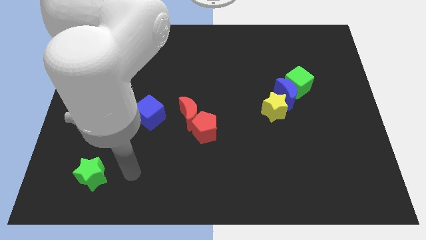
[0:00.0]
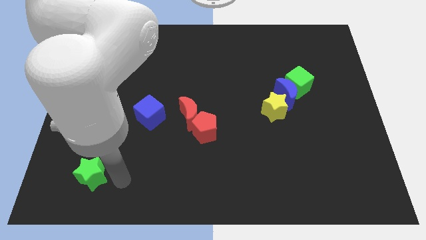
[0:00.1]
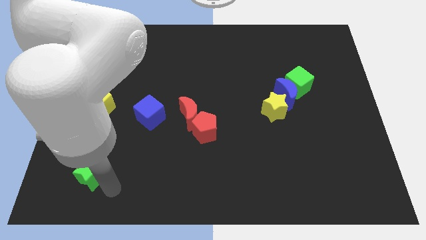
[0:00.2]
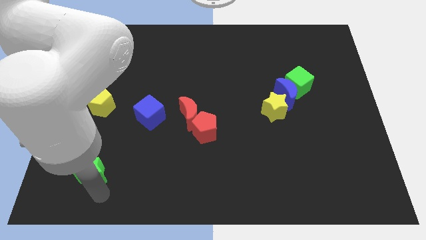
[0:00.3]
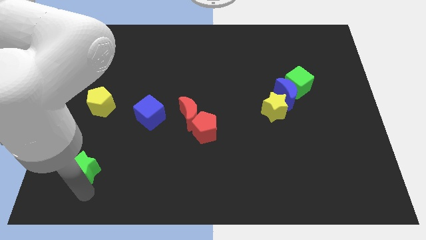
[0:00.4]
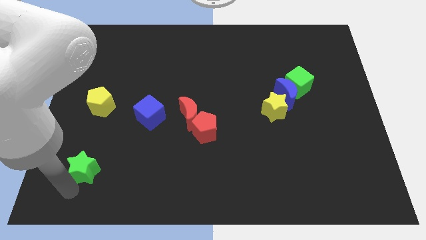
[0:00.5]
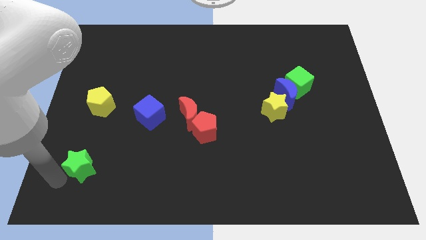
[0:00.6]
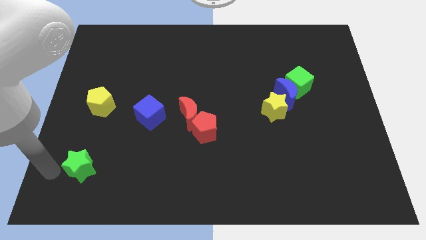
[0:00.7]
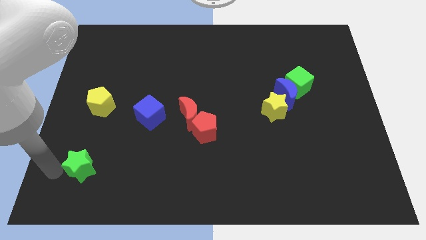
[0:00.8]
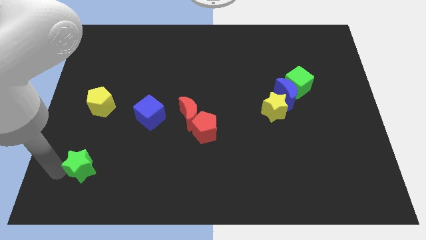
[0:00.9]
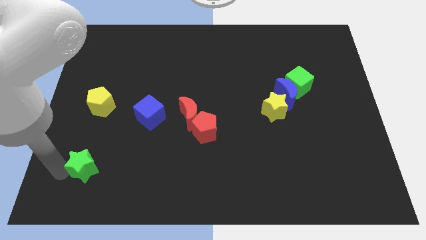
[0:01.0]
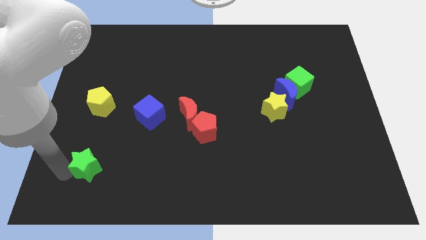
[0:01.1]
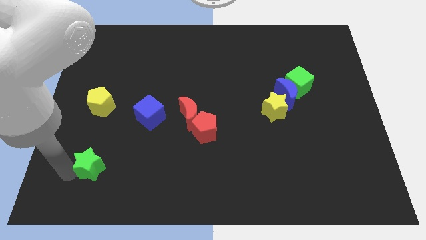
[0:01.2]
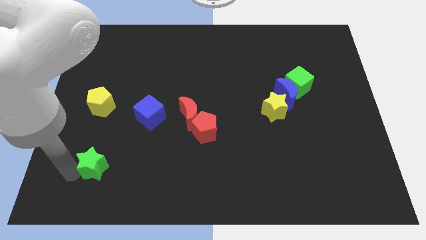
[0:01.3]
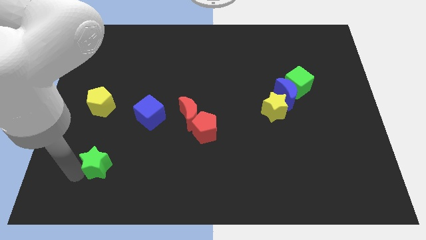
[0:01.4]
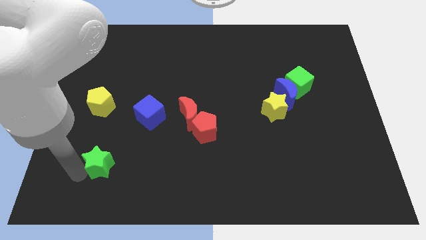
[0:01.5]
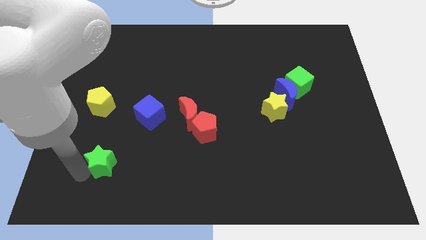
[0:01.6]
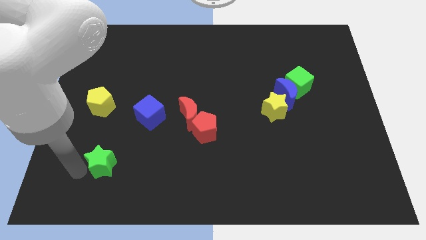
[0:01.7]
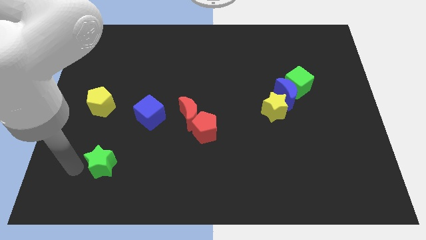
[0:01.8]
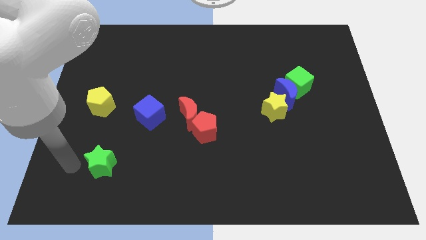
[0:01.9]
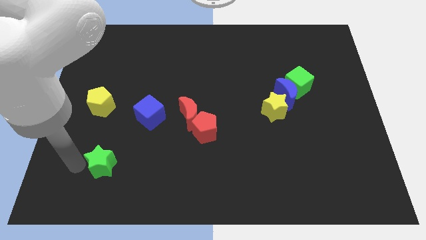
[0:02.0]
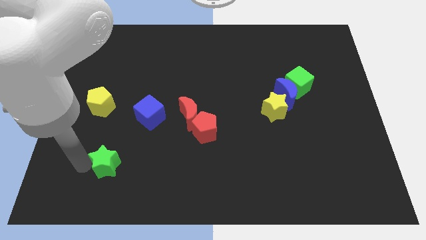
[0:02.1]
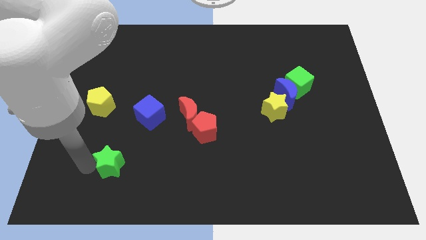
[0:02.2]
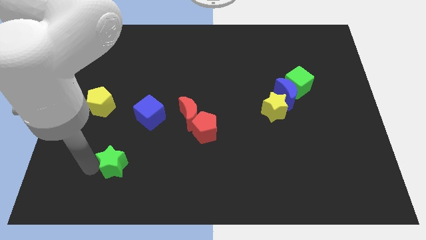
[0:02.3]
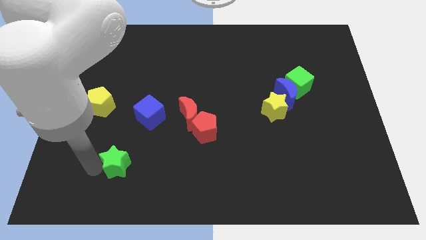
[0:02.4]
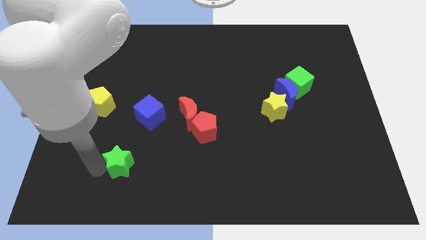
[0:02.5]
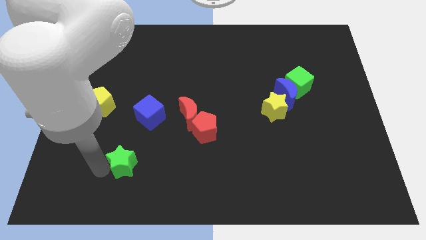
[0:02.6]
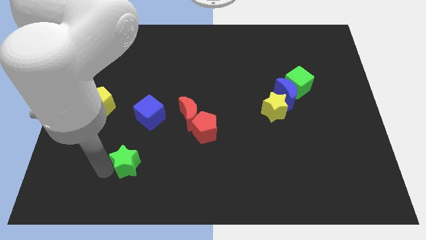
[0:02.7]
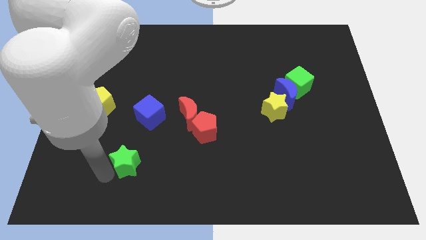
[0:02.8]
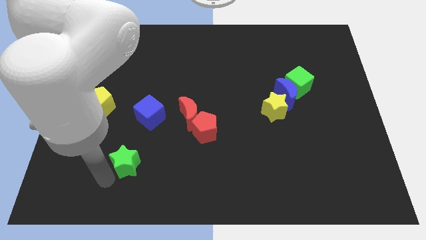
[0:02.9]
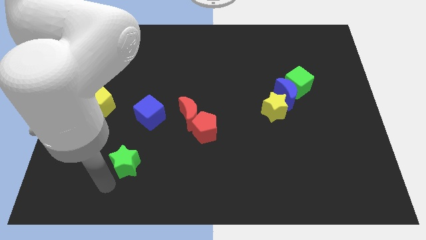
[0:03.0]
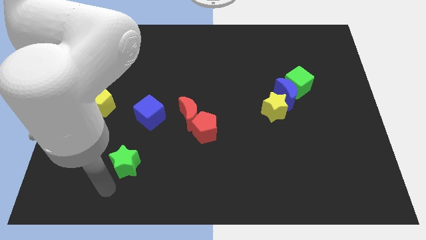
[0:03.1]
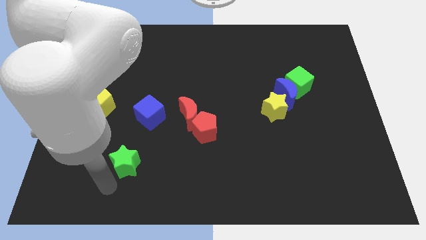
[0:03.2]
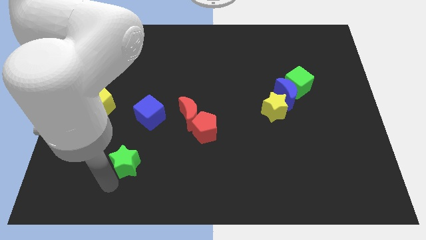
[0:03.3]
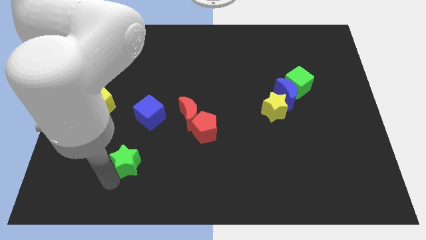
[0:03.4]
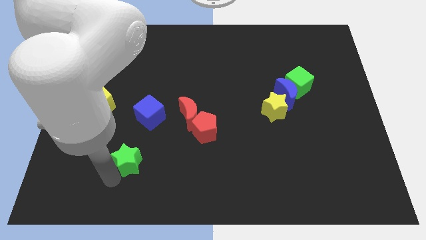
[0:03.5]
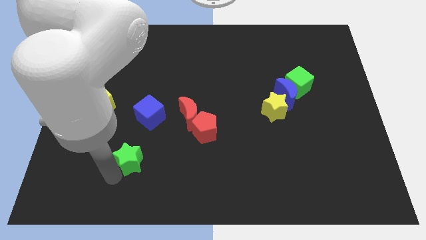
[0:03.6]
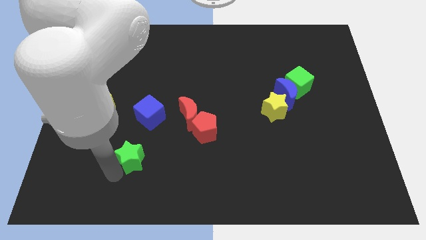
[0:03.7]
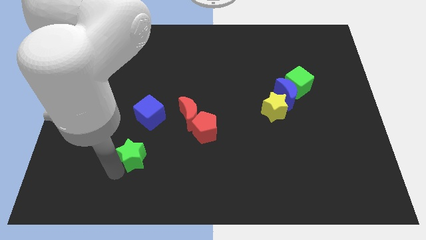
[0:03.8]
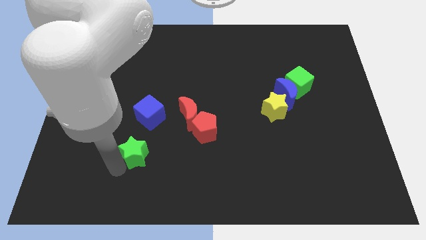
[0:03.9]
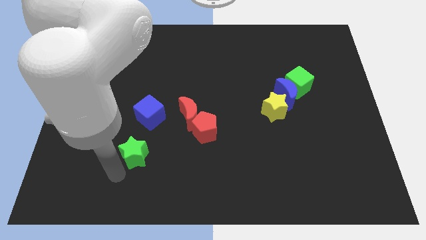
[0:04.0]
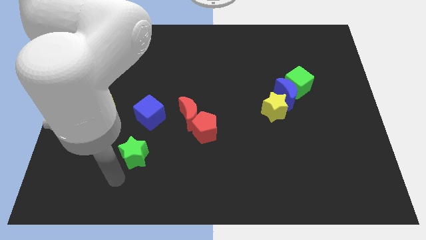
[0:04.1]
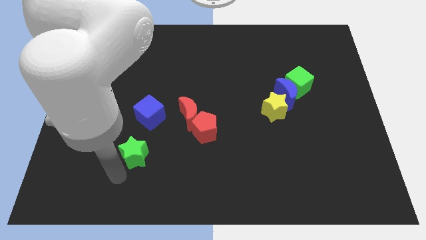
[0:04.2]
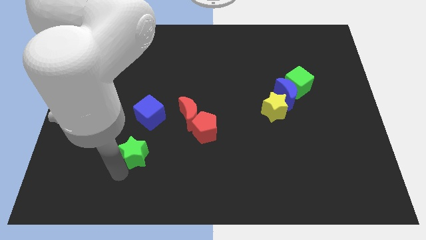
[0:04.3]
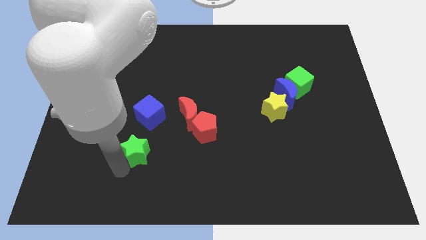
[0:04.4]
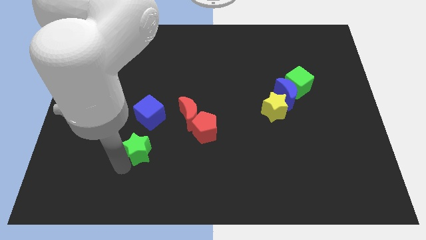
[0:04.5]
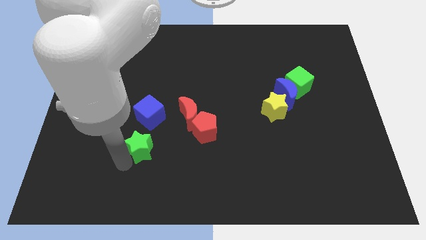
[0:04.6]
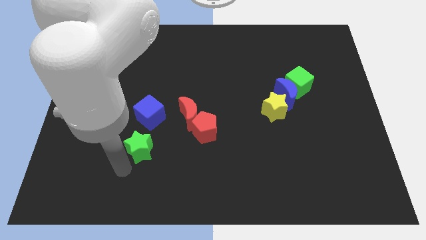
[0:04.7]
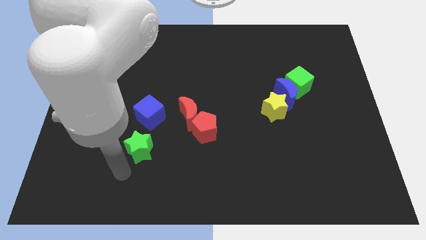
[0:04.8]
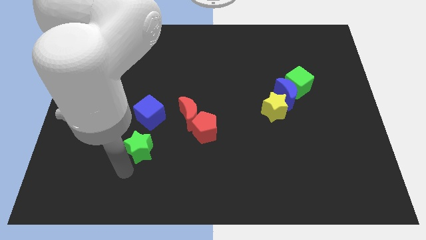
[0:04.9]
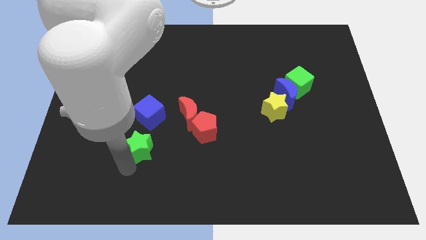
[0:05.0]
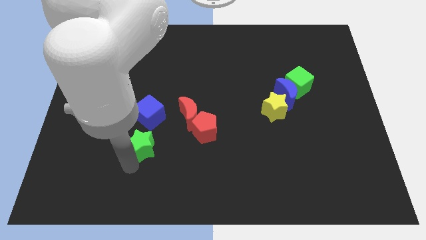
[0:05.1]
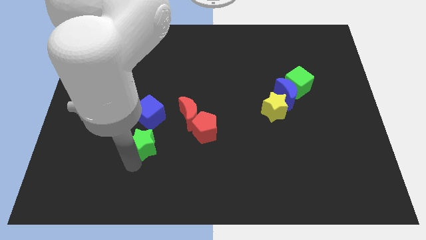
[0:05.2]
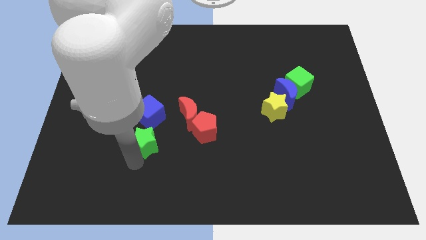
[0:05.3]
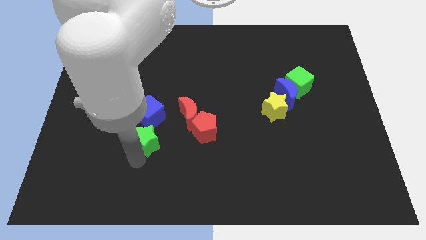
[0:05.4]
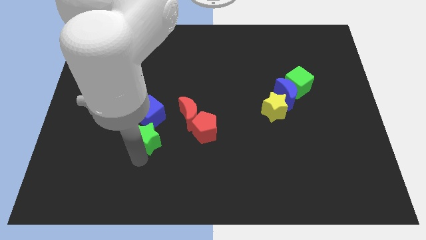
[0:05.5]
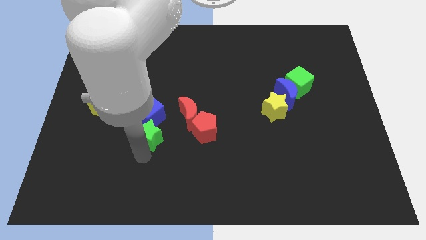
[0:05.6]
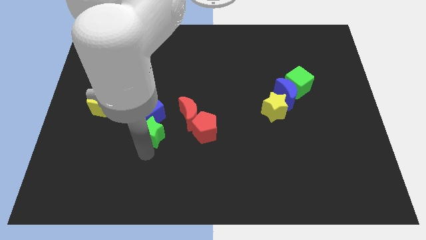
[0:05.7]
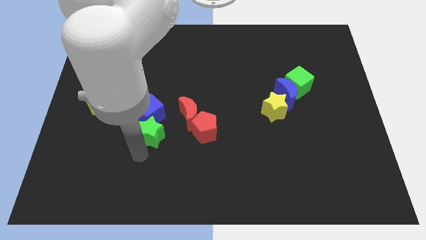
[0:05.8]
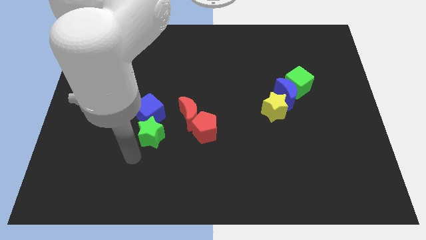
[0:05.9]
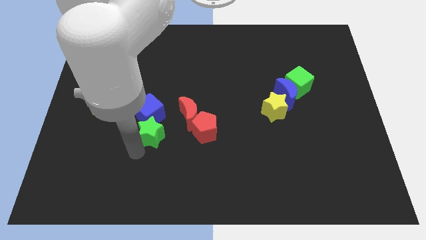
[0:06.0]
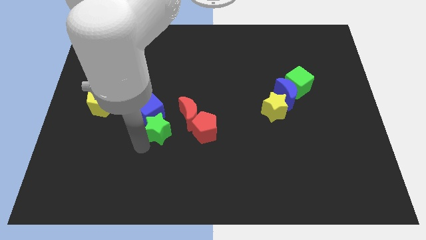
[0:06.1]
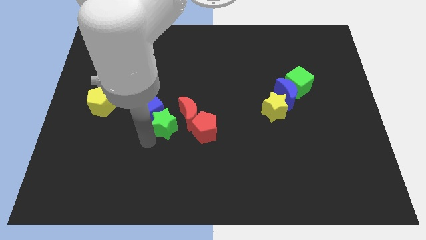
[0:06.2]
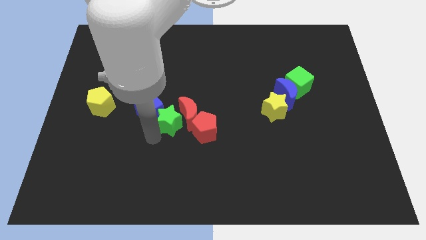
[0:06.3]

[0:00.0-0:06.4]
put the green star to the center of the board

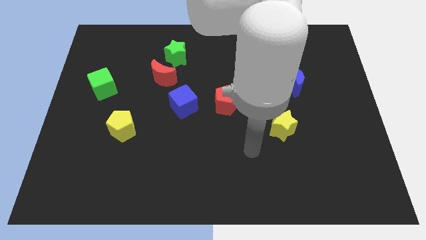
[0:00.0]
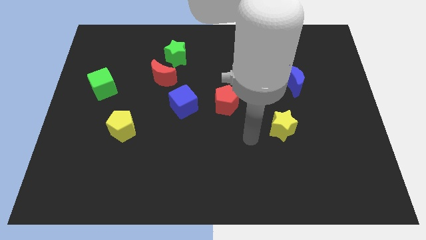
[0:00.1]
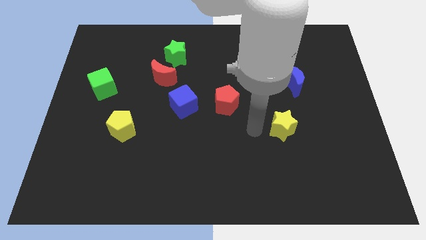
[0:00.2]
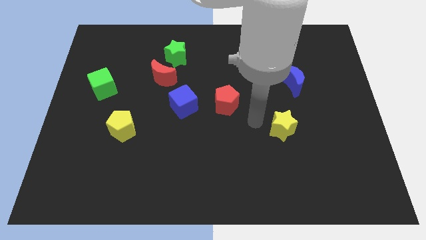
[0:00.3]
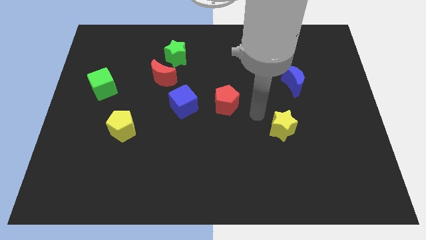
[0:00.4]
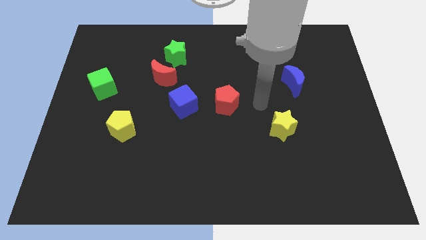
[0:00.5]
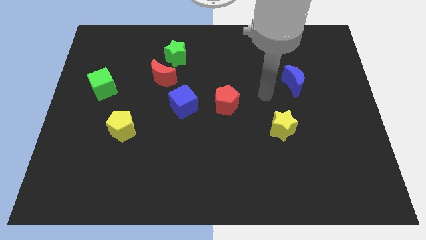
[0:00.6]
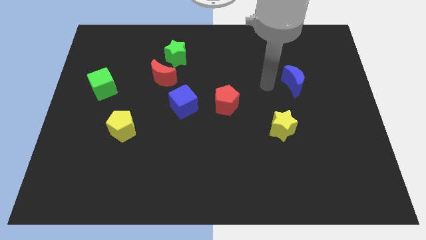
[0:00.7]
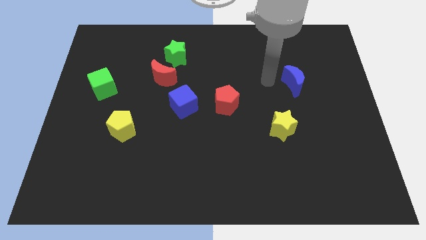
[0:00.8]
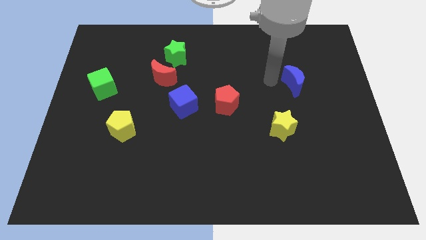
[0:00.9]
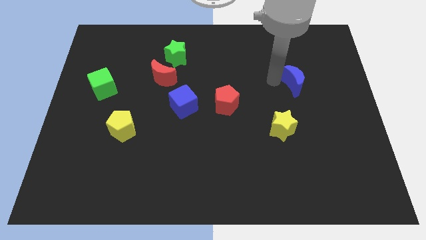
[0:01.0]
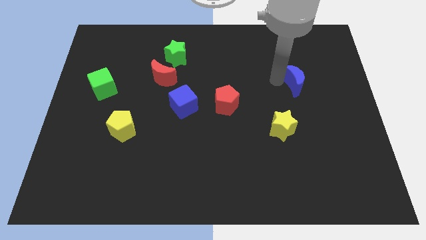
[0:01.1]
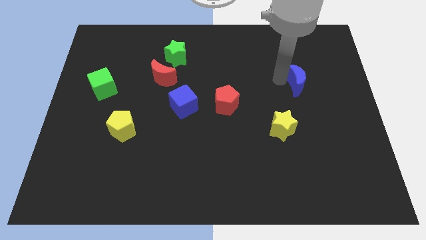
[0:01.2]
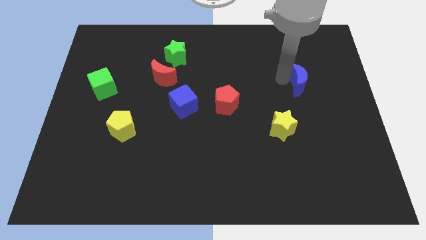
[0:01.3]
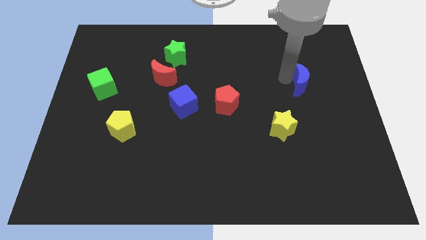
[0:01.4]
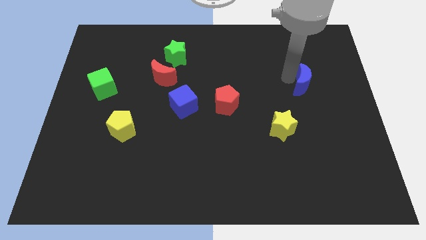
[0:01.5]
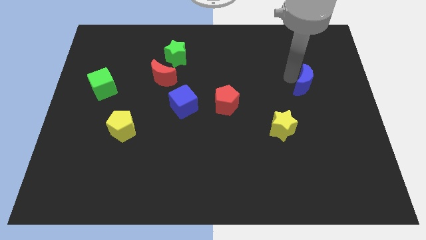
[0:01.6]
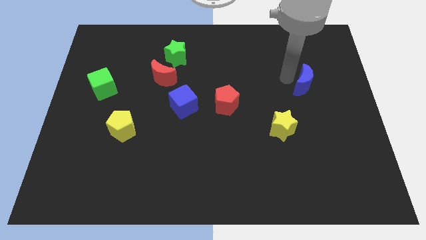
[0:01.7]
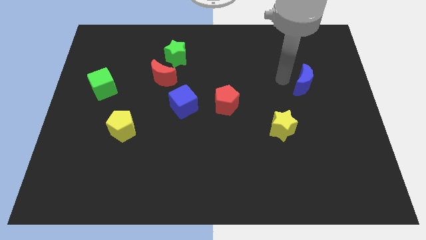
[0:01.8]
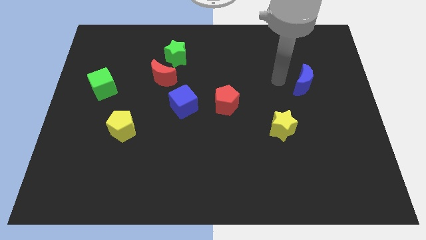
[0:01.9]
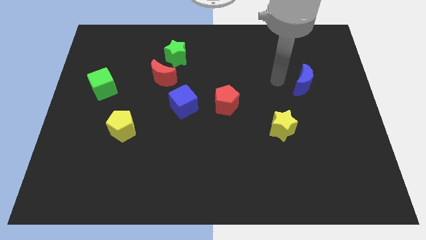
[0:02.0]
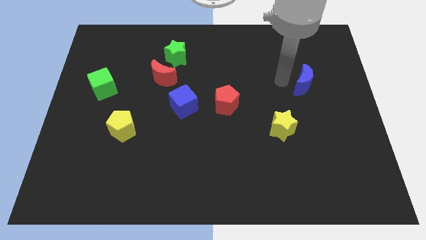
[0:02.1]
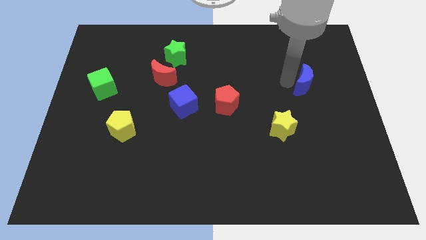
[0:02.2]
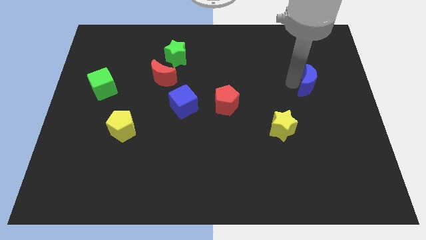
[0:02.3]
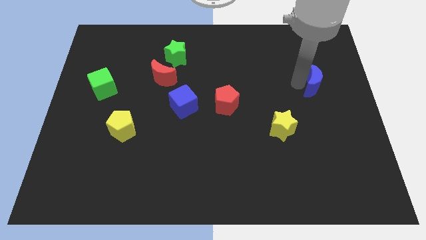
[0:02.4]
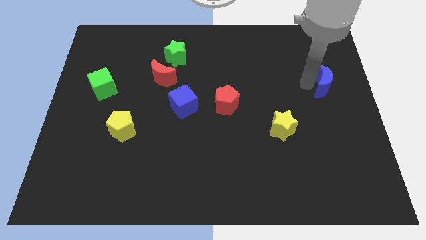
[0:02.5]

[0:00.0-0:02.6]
move the blue moon to the right side
